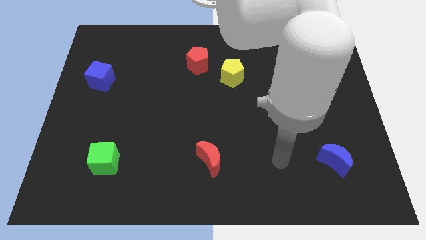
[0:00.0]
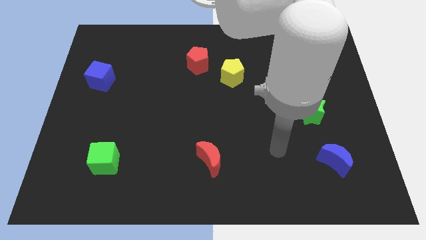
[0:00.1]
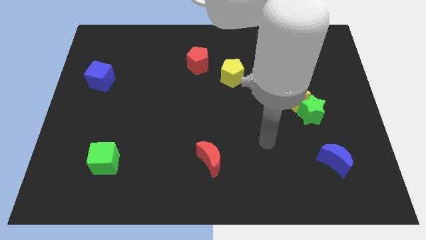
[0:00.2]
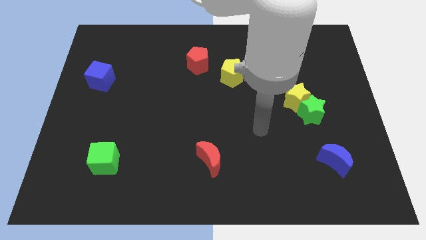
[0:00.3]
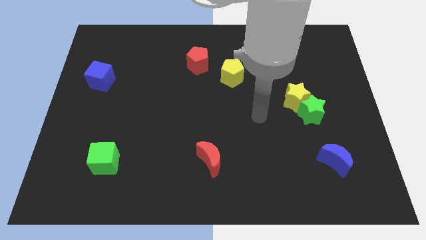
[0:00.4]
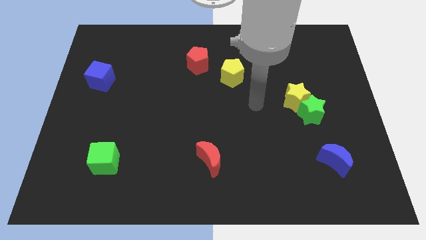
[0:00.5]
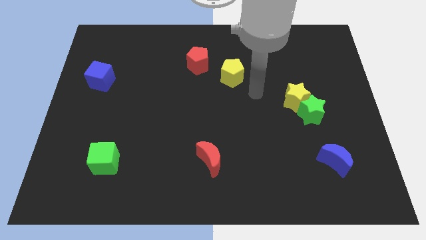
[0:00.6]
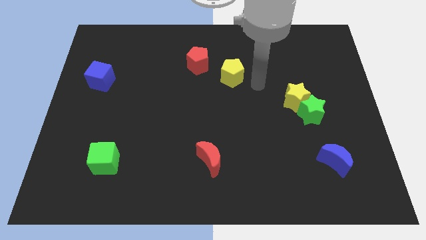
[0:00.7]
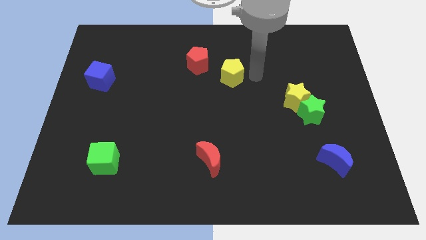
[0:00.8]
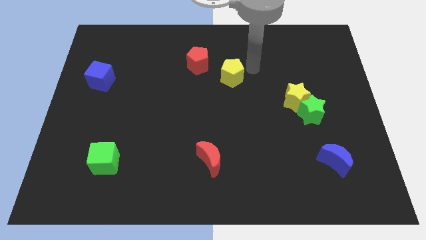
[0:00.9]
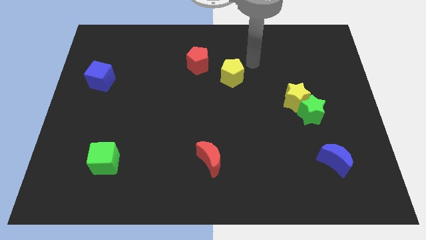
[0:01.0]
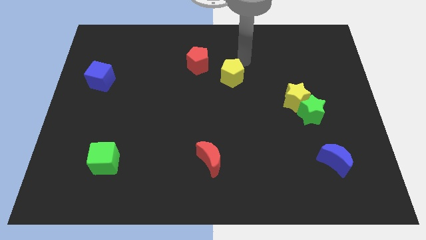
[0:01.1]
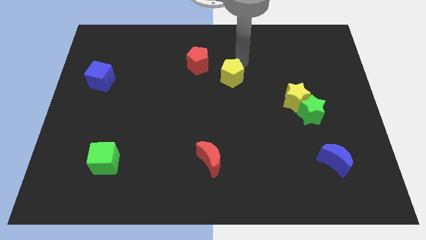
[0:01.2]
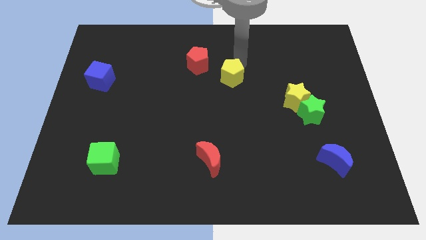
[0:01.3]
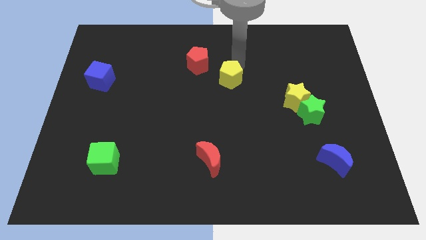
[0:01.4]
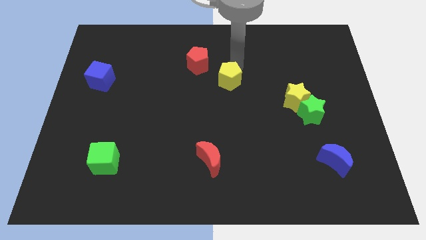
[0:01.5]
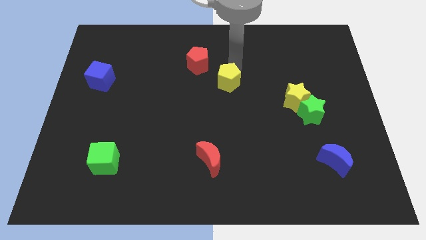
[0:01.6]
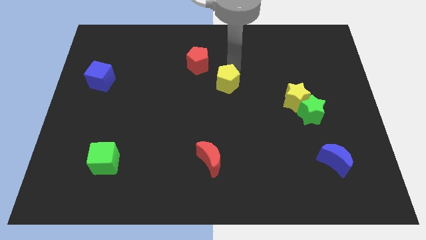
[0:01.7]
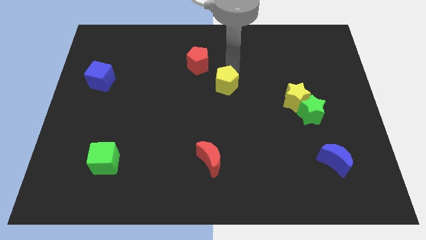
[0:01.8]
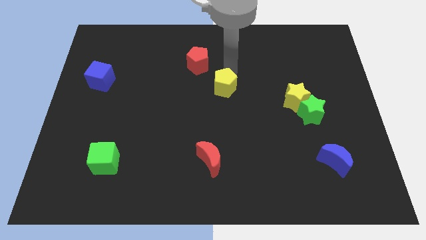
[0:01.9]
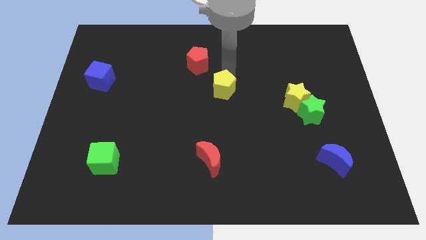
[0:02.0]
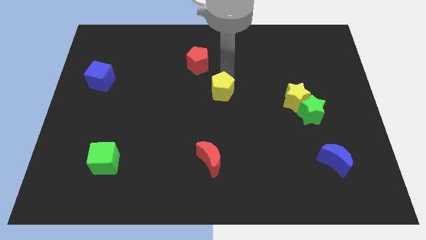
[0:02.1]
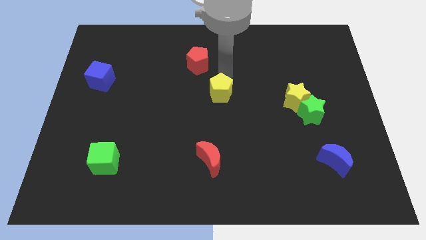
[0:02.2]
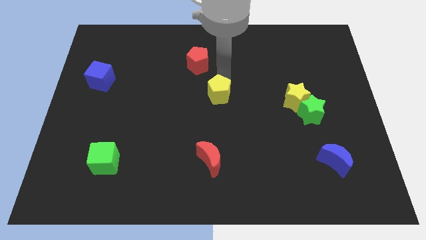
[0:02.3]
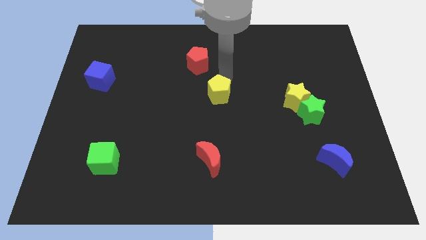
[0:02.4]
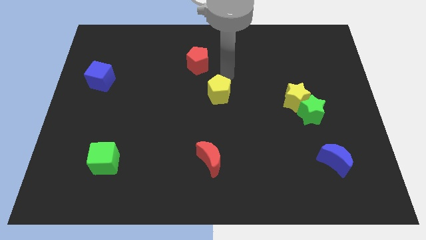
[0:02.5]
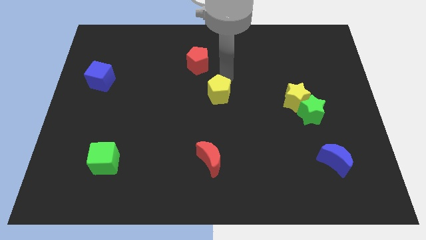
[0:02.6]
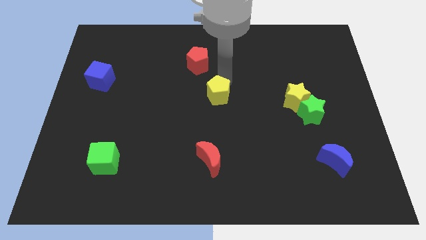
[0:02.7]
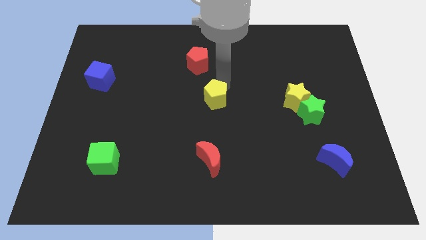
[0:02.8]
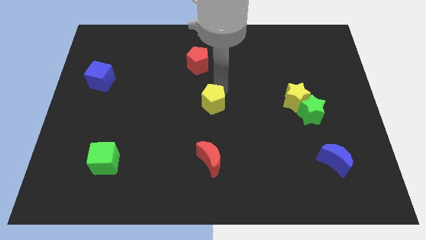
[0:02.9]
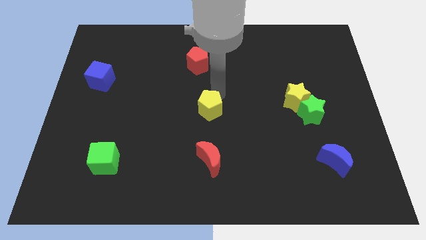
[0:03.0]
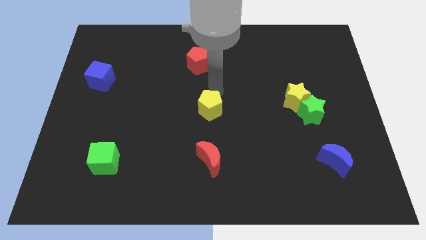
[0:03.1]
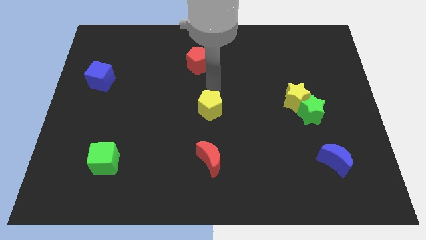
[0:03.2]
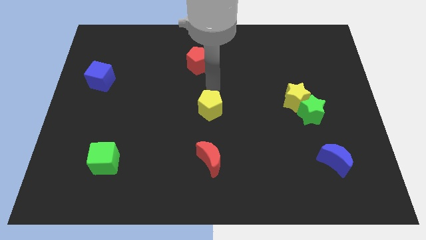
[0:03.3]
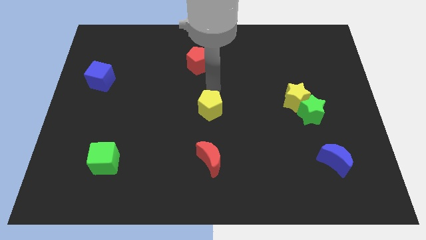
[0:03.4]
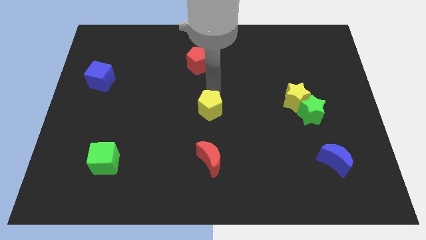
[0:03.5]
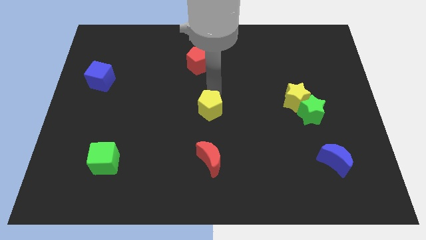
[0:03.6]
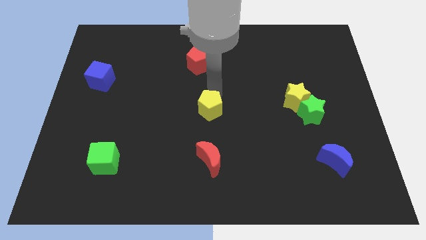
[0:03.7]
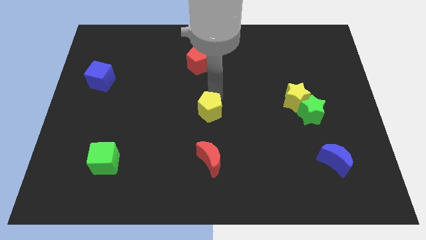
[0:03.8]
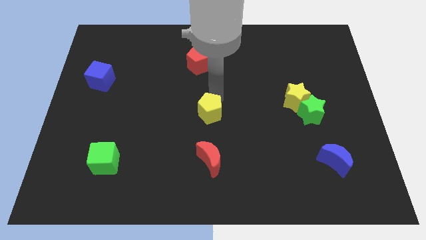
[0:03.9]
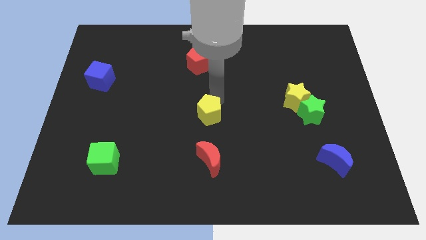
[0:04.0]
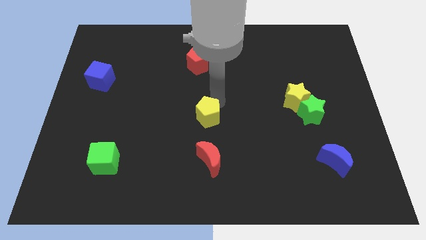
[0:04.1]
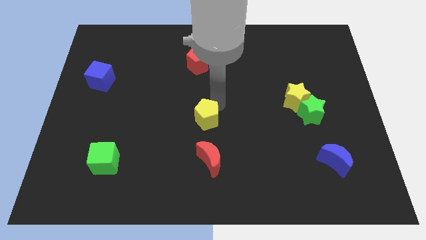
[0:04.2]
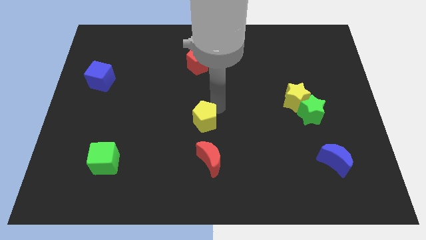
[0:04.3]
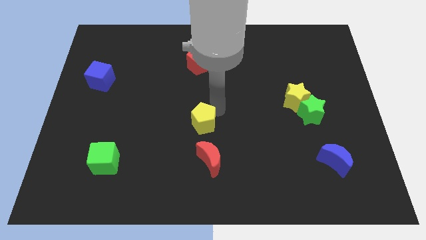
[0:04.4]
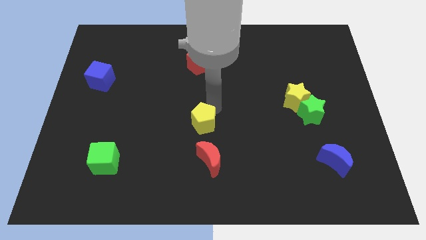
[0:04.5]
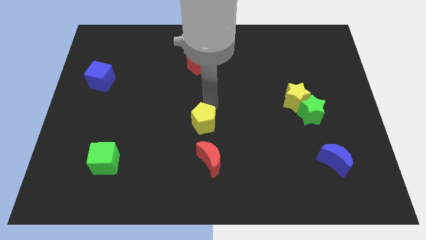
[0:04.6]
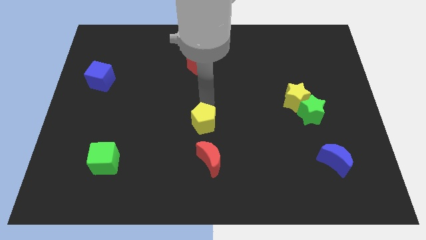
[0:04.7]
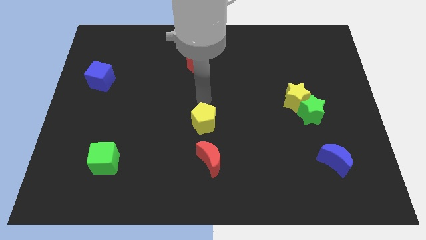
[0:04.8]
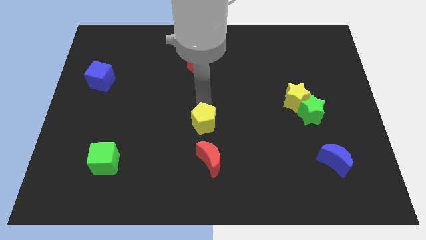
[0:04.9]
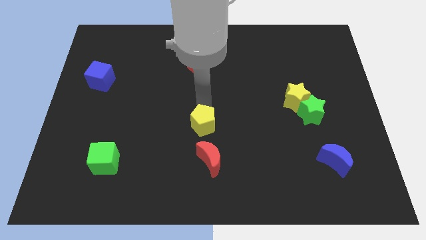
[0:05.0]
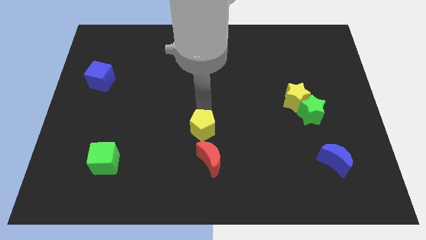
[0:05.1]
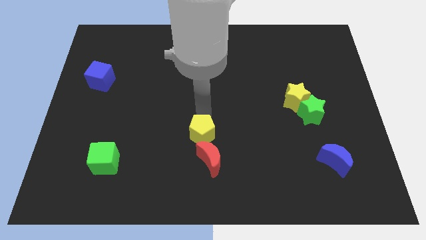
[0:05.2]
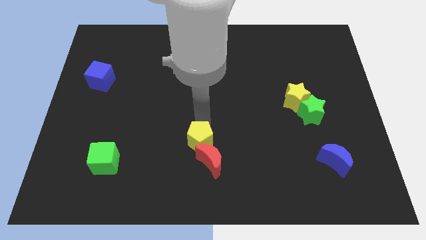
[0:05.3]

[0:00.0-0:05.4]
move the yellow pentagon next to the red moon

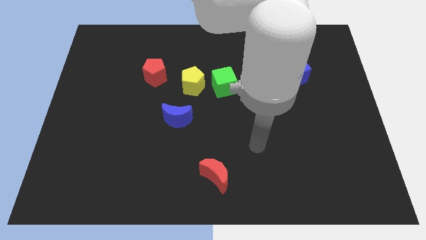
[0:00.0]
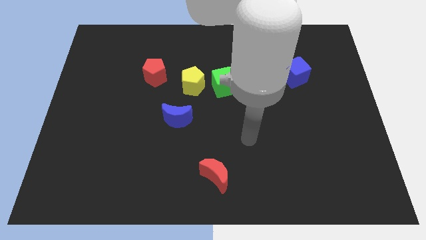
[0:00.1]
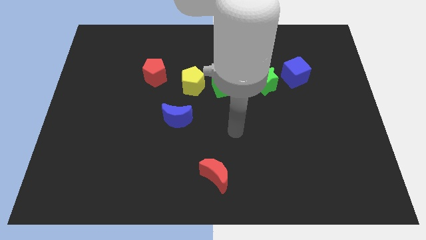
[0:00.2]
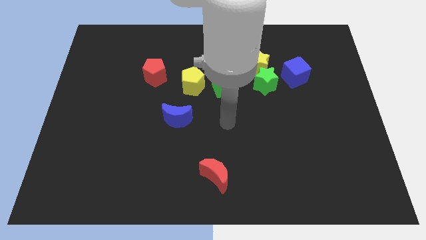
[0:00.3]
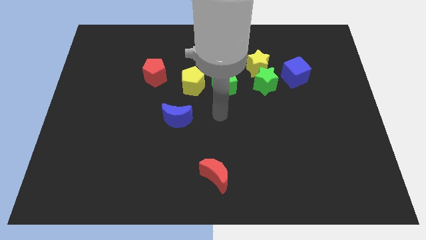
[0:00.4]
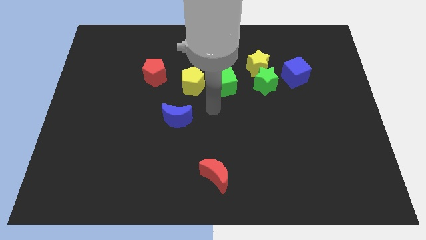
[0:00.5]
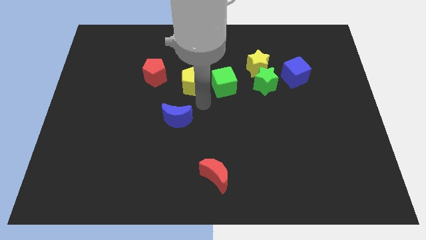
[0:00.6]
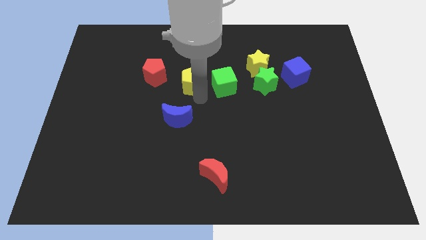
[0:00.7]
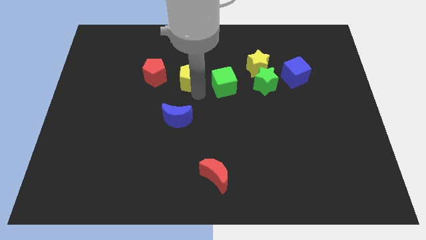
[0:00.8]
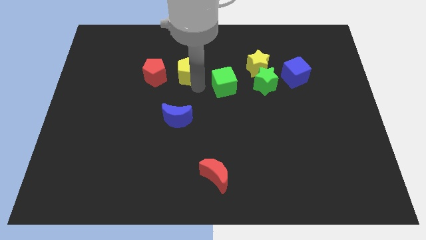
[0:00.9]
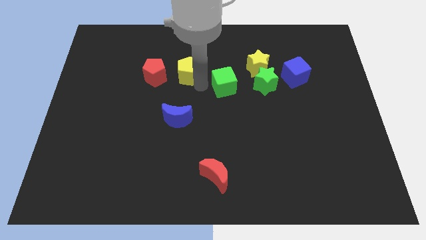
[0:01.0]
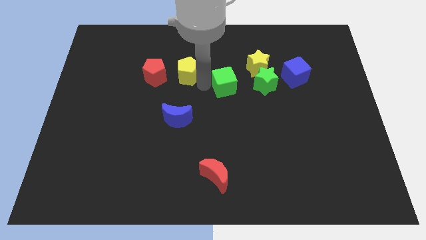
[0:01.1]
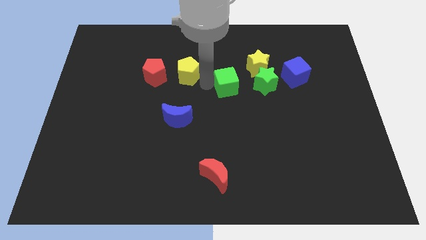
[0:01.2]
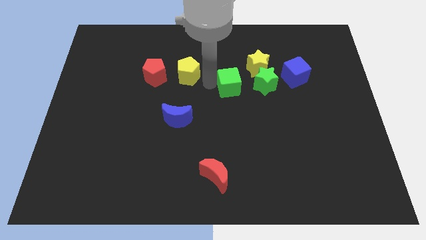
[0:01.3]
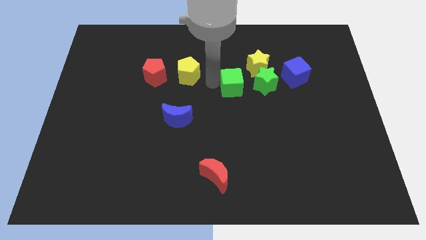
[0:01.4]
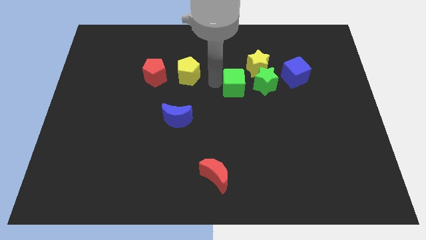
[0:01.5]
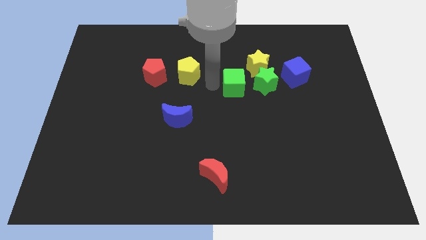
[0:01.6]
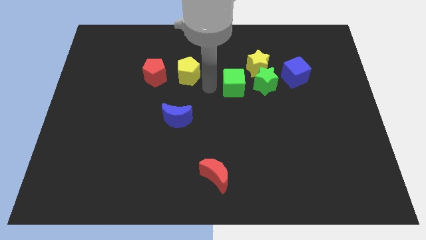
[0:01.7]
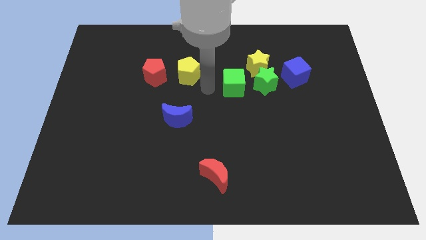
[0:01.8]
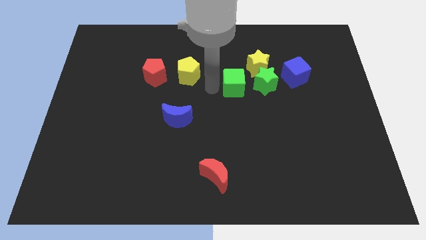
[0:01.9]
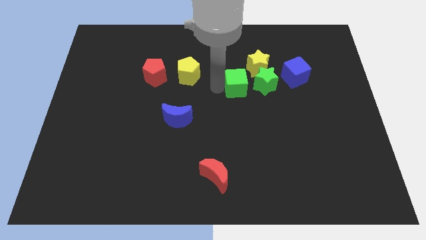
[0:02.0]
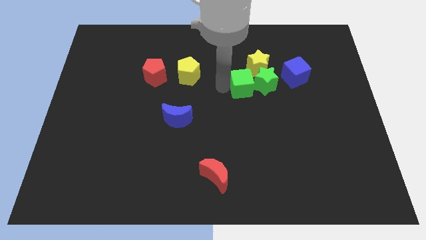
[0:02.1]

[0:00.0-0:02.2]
put the green cube close to the green star

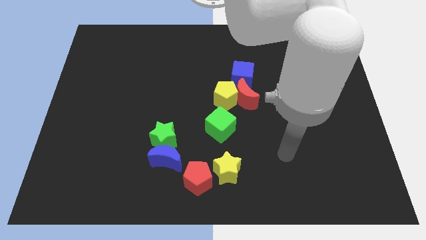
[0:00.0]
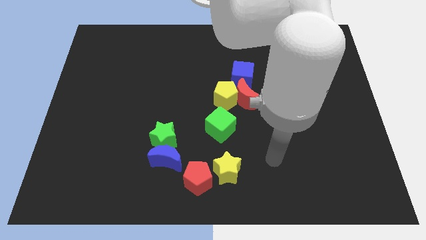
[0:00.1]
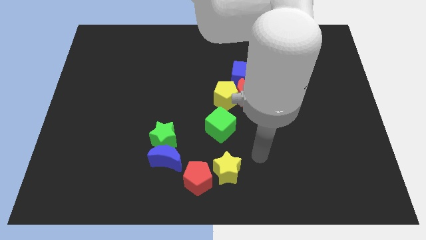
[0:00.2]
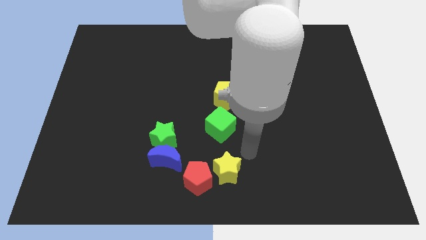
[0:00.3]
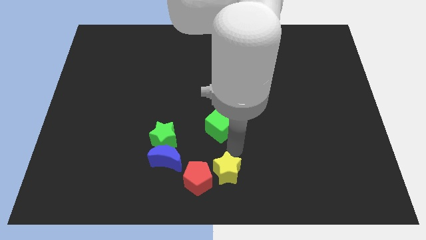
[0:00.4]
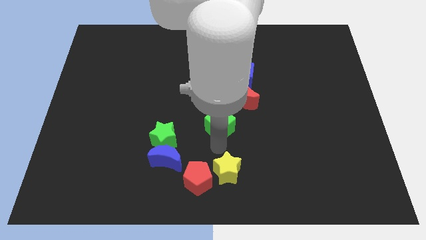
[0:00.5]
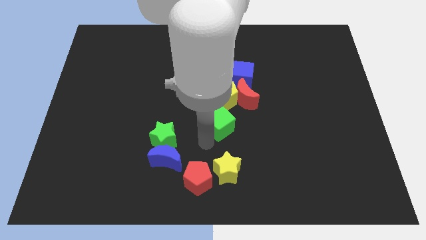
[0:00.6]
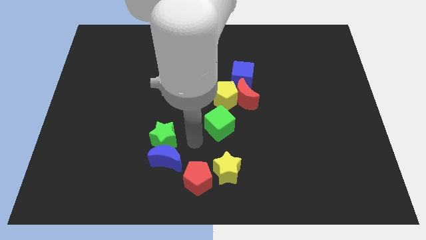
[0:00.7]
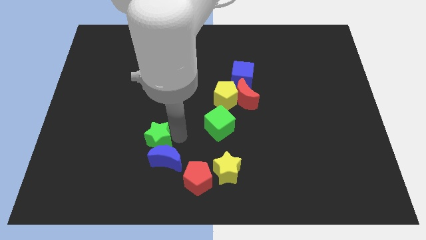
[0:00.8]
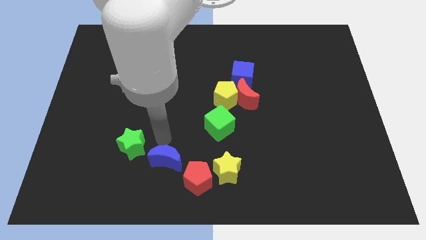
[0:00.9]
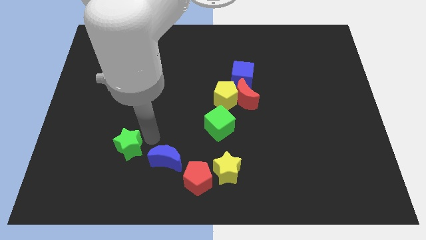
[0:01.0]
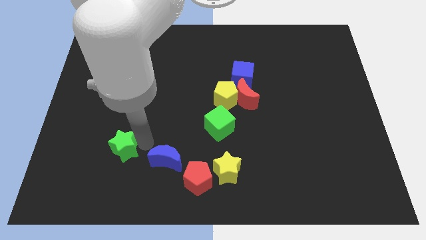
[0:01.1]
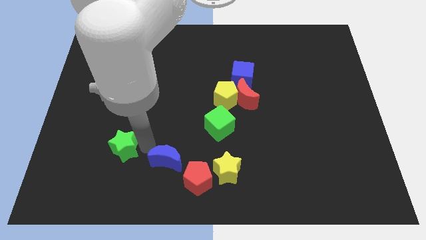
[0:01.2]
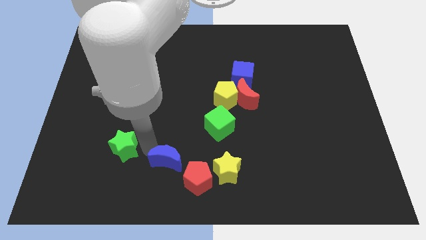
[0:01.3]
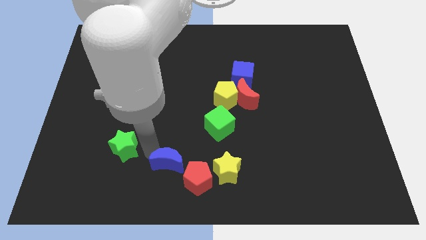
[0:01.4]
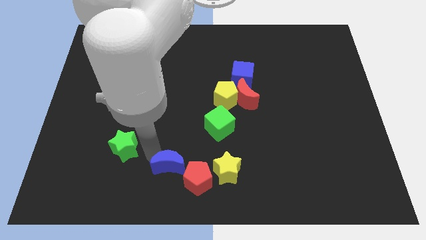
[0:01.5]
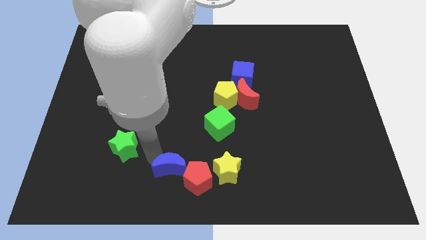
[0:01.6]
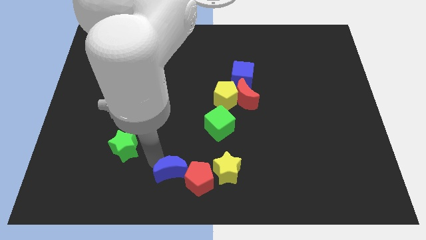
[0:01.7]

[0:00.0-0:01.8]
put the blue moon next to the red pentagon
